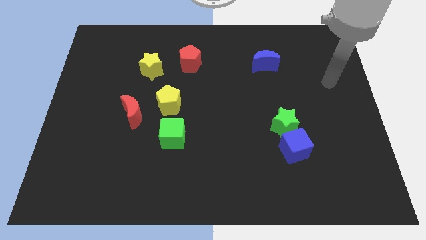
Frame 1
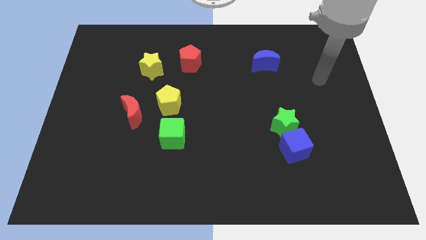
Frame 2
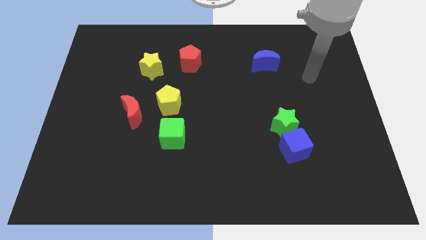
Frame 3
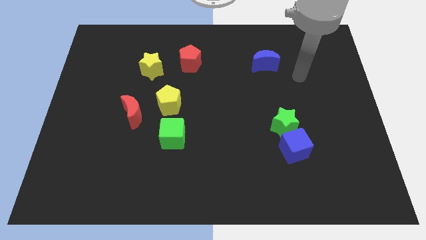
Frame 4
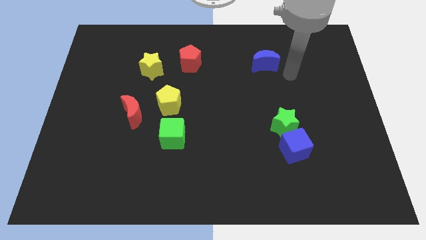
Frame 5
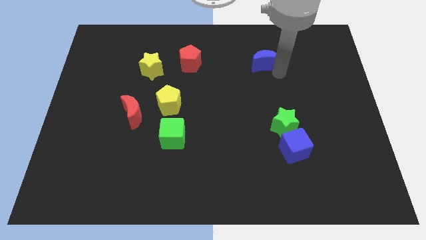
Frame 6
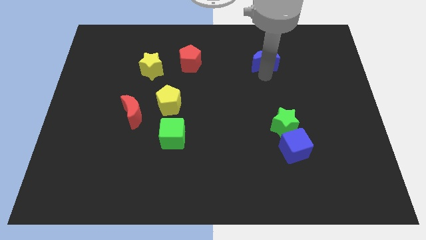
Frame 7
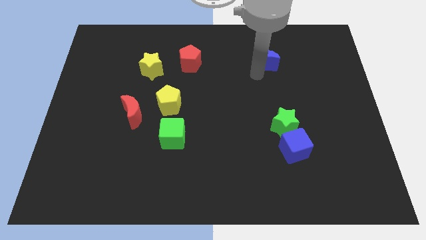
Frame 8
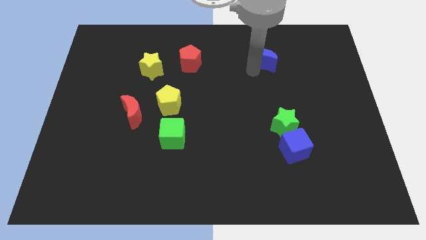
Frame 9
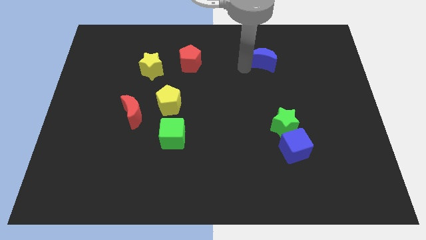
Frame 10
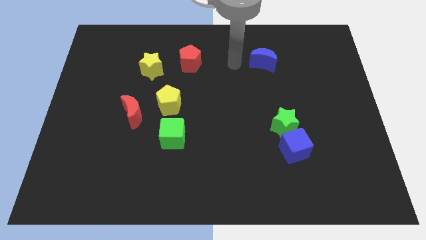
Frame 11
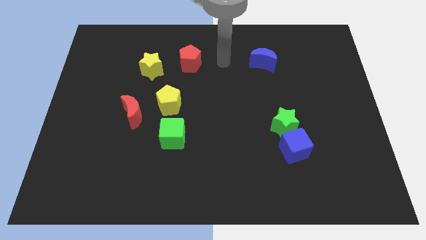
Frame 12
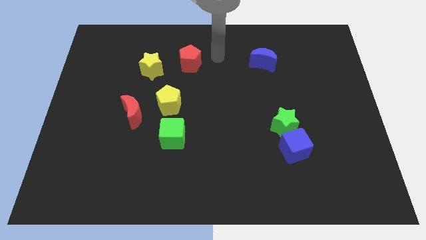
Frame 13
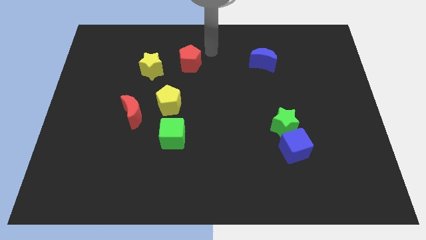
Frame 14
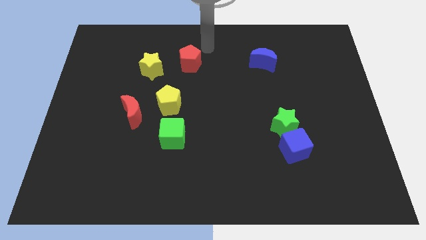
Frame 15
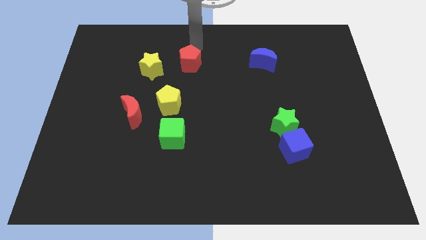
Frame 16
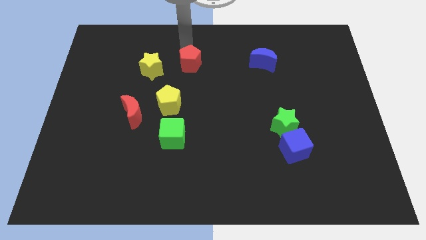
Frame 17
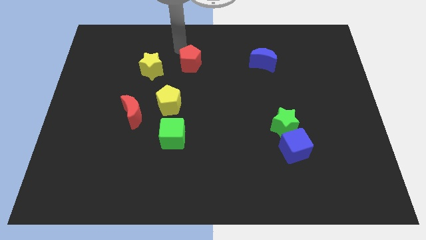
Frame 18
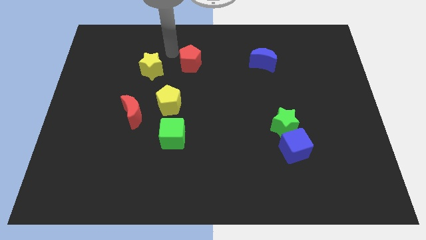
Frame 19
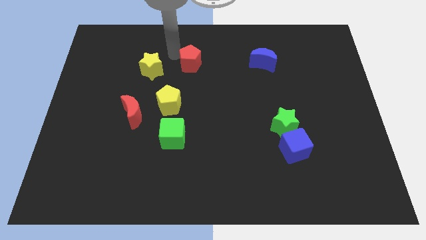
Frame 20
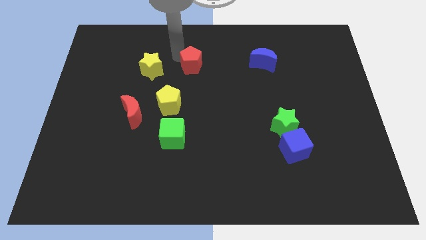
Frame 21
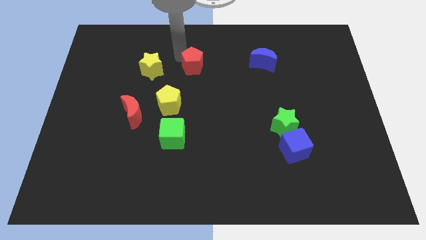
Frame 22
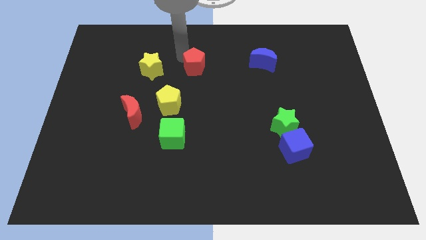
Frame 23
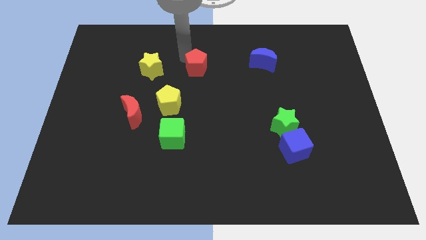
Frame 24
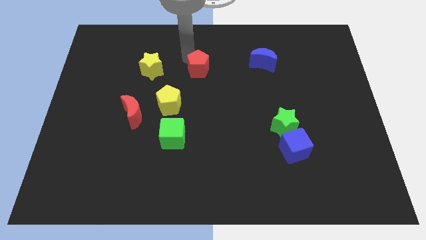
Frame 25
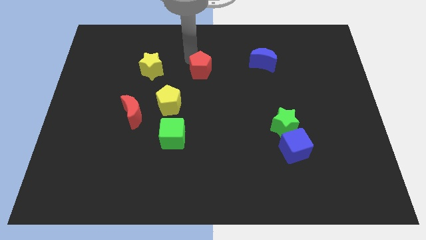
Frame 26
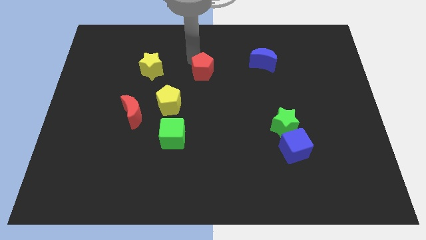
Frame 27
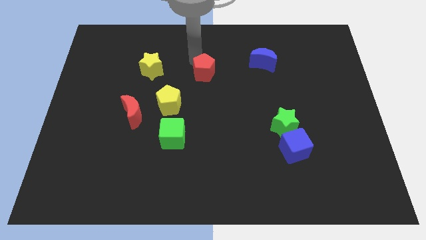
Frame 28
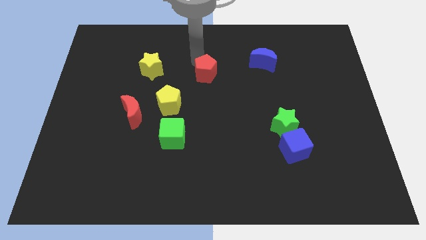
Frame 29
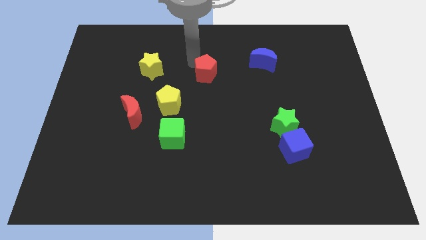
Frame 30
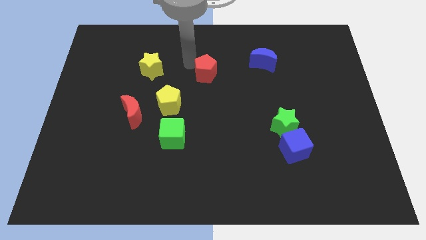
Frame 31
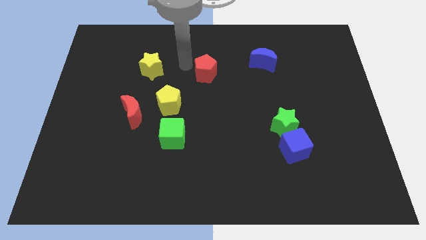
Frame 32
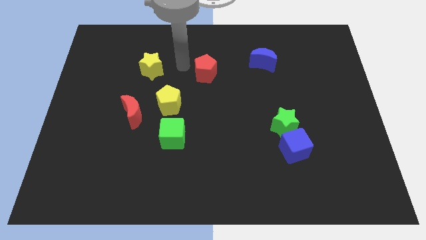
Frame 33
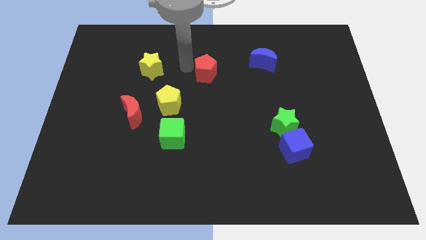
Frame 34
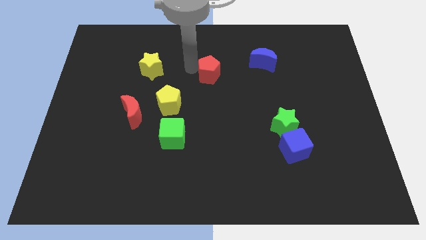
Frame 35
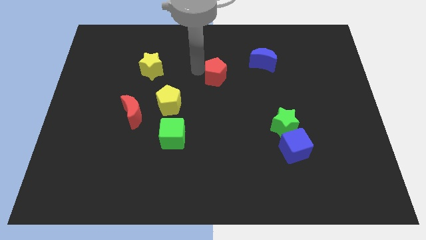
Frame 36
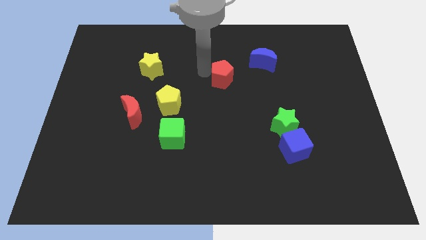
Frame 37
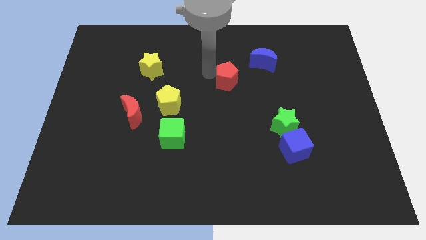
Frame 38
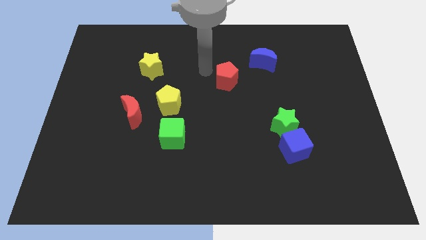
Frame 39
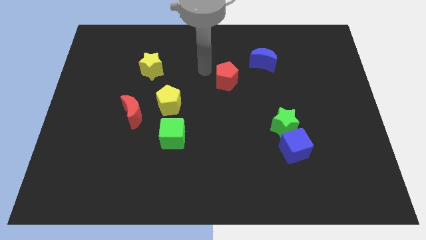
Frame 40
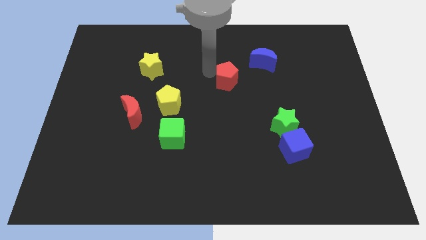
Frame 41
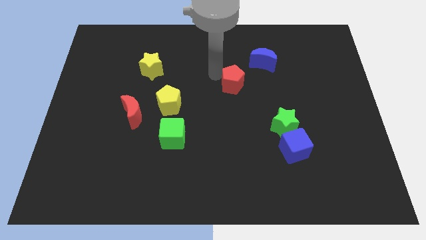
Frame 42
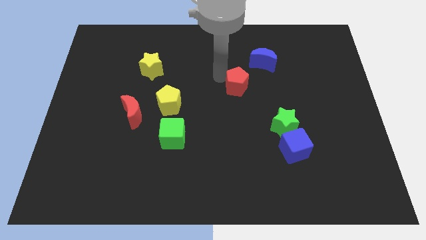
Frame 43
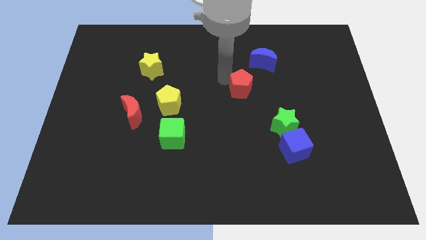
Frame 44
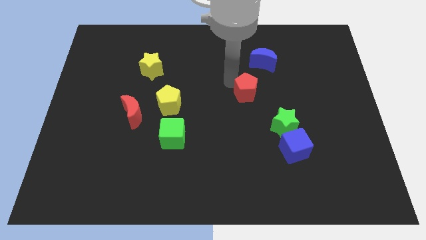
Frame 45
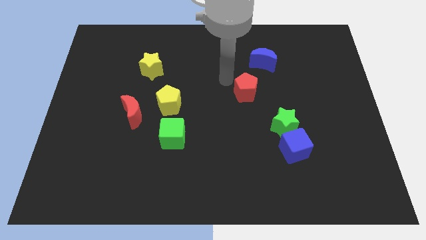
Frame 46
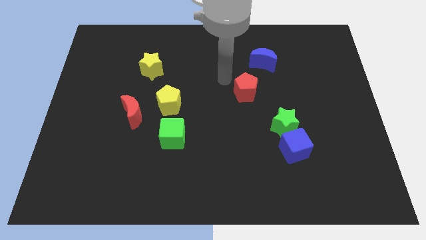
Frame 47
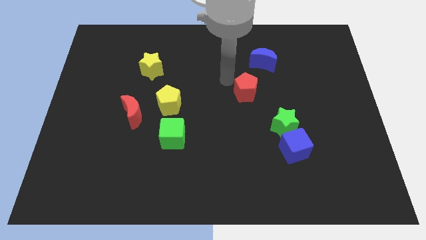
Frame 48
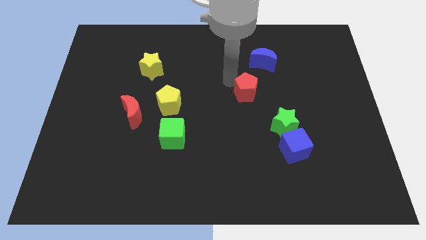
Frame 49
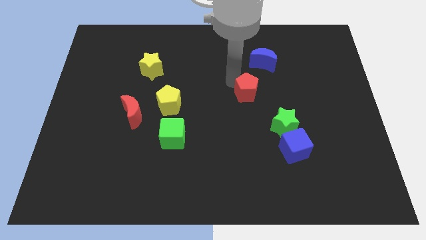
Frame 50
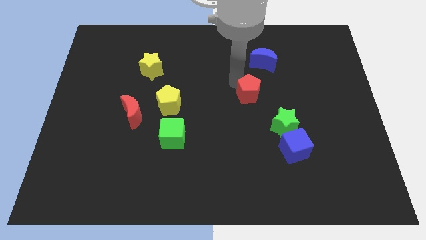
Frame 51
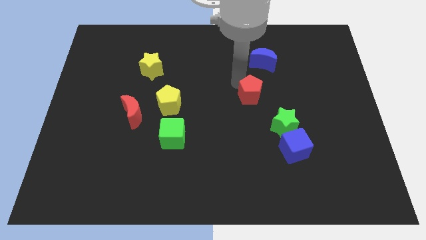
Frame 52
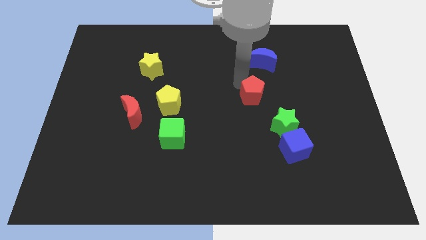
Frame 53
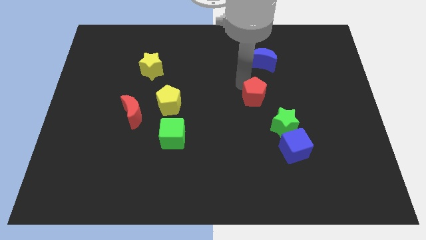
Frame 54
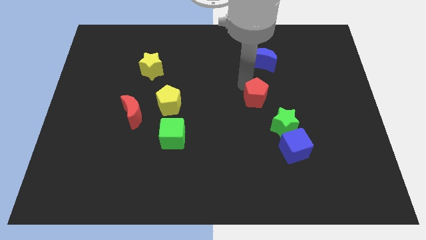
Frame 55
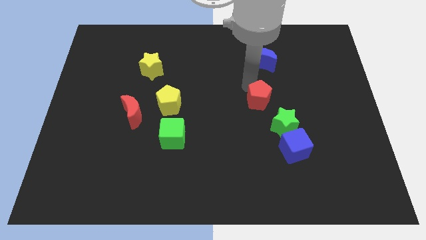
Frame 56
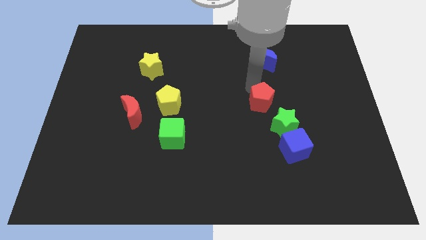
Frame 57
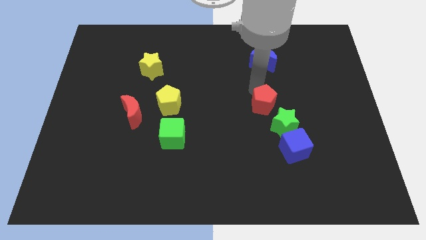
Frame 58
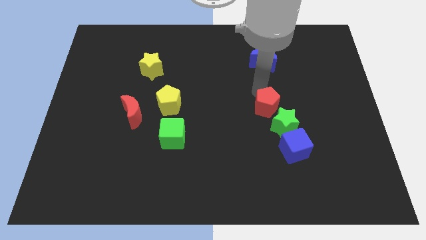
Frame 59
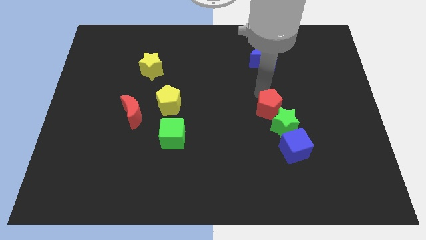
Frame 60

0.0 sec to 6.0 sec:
put the red pentagon next to the green star

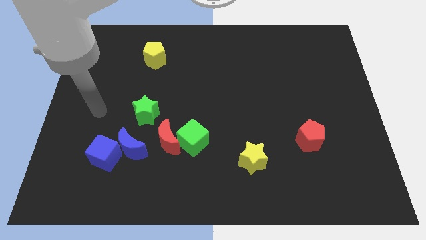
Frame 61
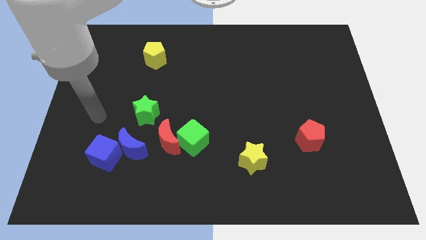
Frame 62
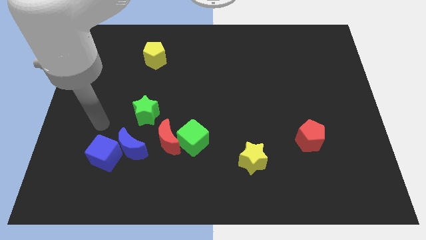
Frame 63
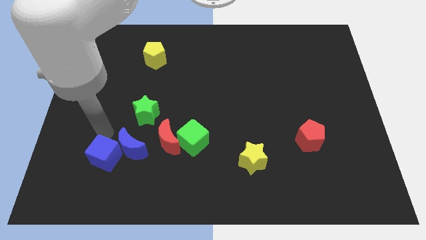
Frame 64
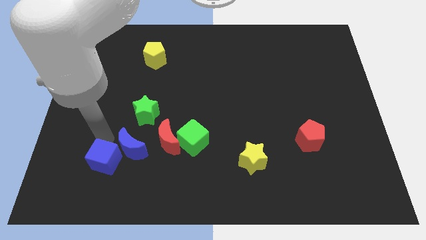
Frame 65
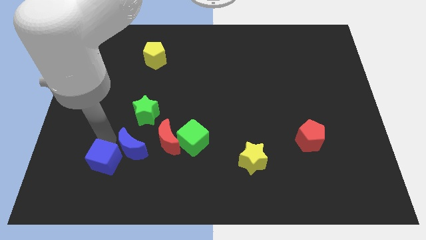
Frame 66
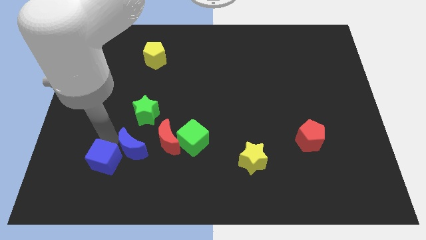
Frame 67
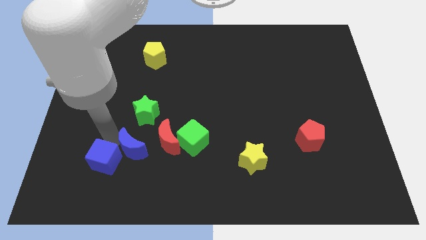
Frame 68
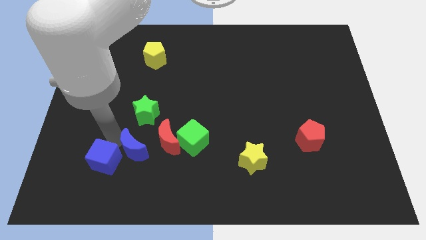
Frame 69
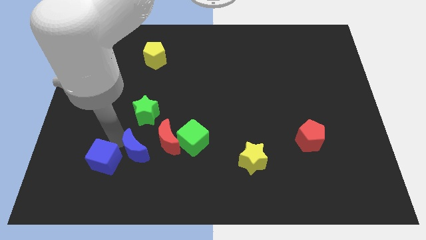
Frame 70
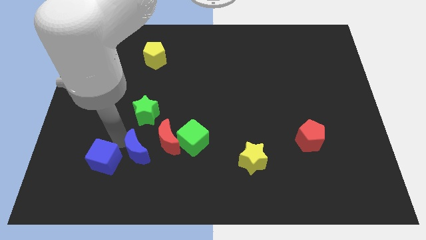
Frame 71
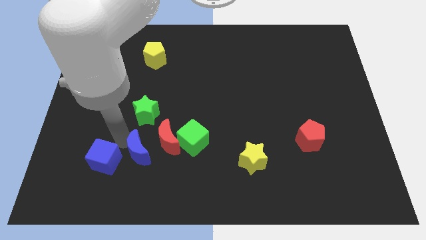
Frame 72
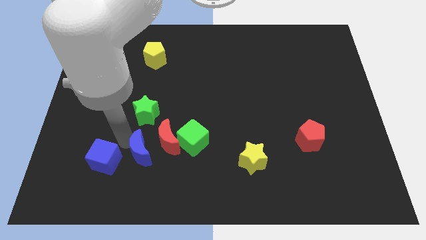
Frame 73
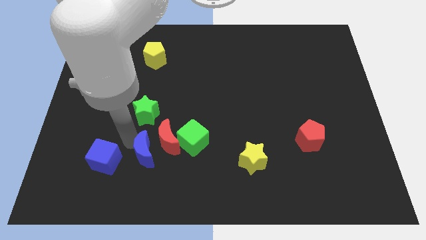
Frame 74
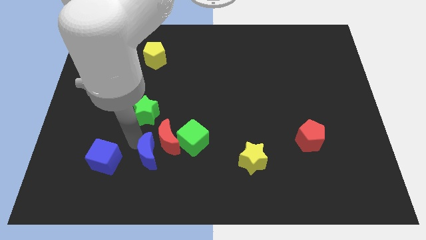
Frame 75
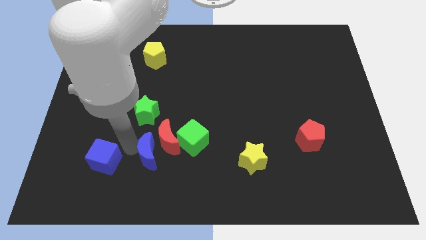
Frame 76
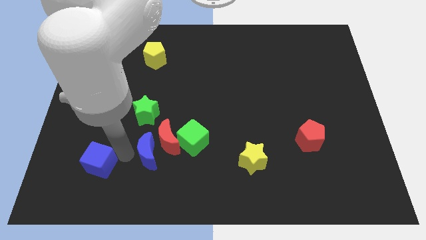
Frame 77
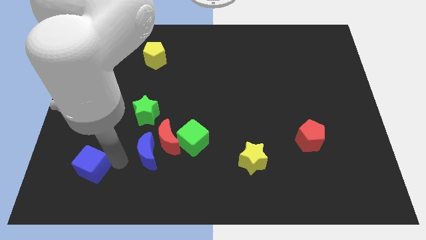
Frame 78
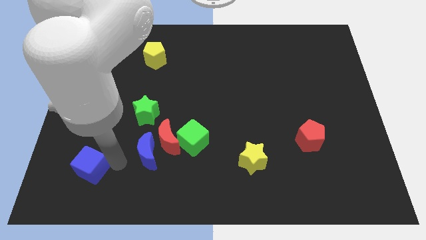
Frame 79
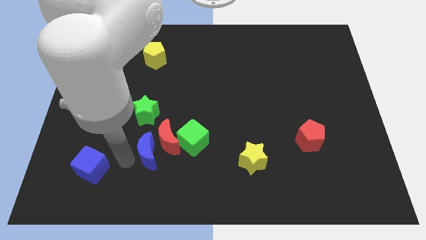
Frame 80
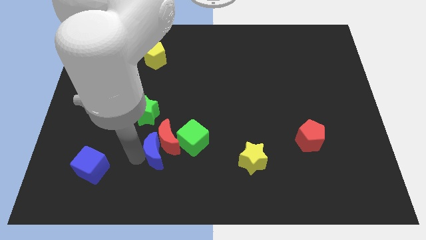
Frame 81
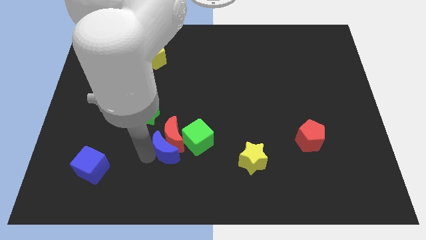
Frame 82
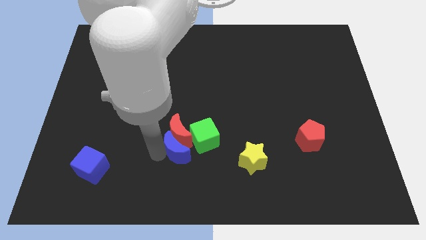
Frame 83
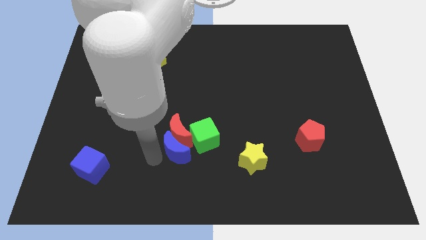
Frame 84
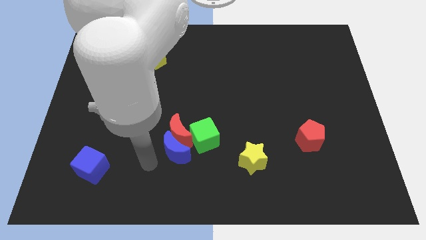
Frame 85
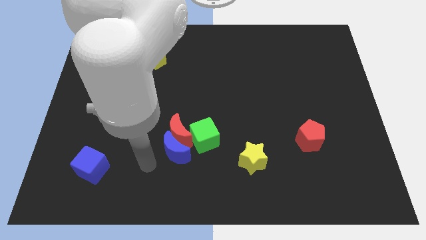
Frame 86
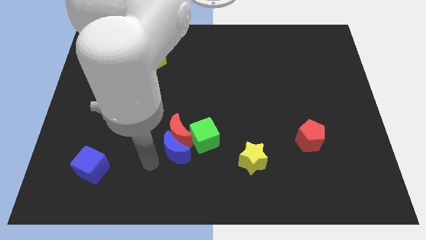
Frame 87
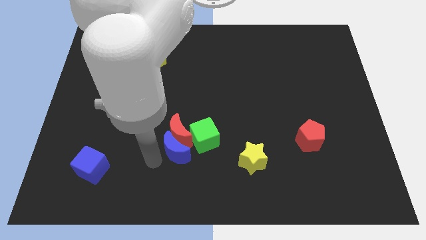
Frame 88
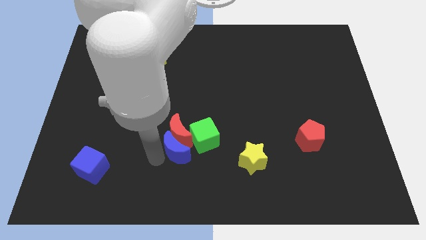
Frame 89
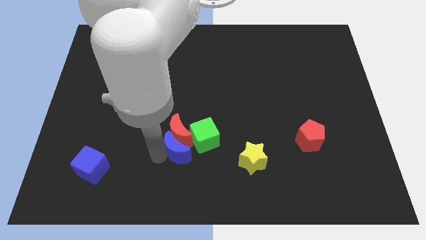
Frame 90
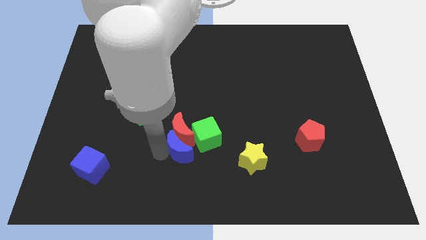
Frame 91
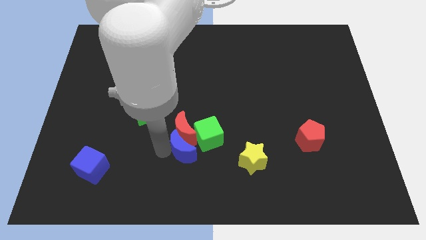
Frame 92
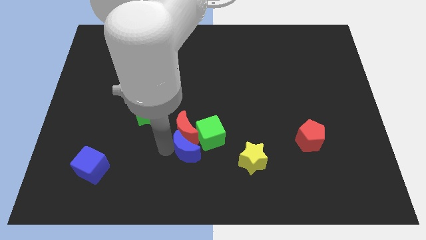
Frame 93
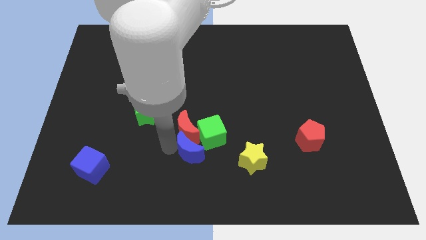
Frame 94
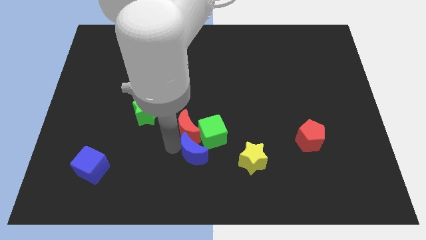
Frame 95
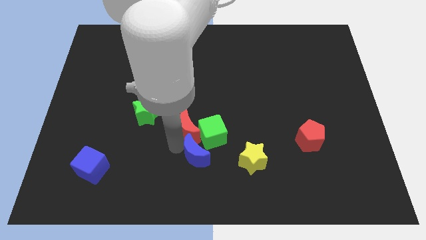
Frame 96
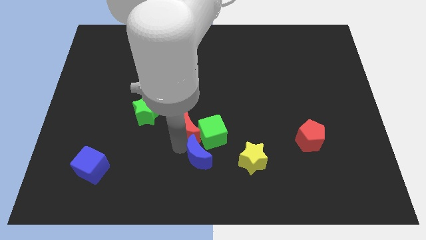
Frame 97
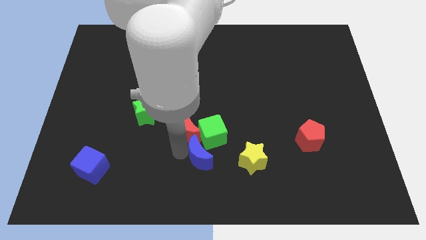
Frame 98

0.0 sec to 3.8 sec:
slide the blue moon to the green cube
